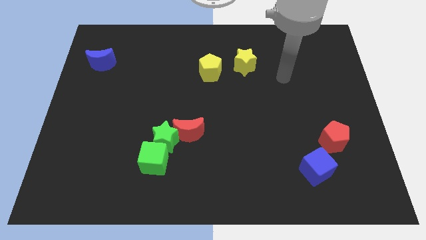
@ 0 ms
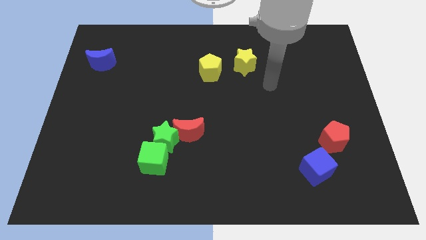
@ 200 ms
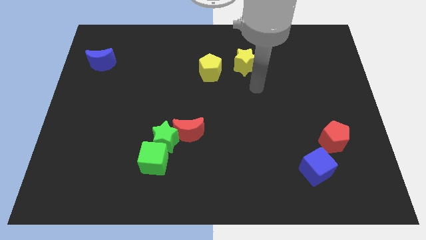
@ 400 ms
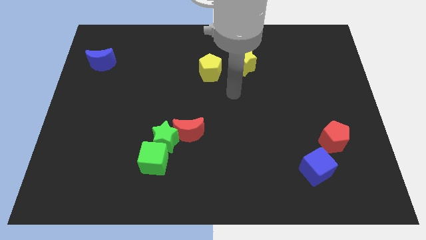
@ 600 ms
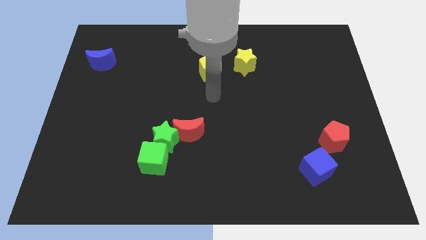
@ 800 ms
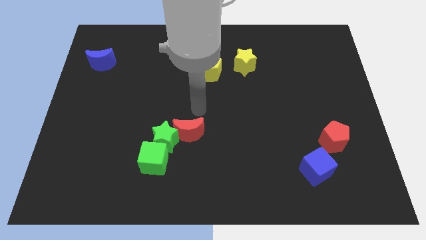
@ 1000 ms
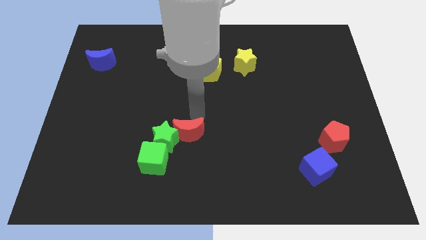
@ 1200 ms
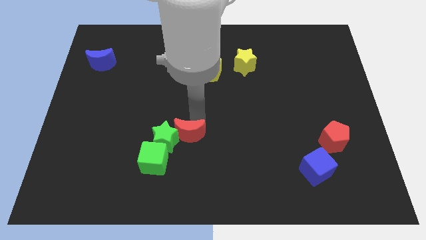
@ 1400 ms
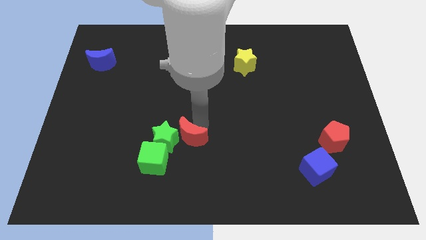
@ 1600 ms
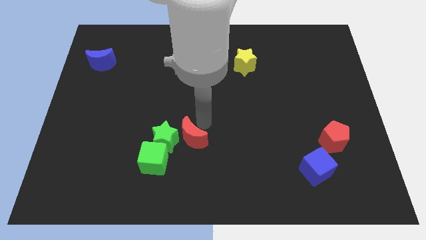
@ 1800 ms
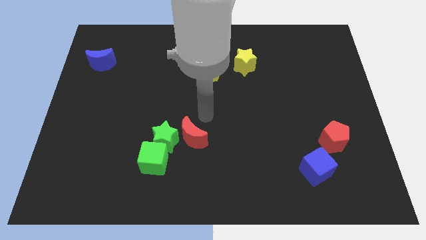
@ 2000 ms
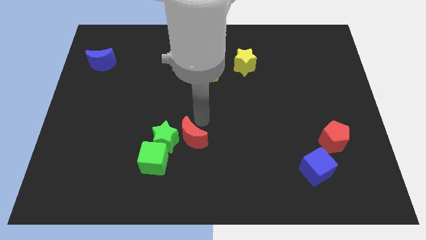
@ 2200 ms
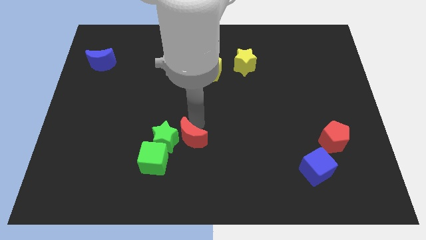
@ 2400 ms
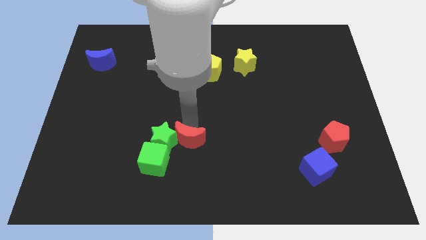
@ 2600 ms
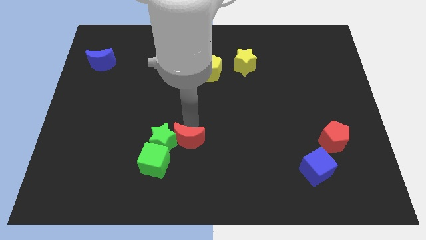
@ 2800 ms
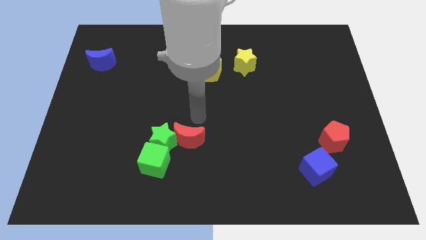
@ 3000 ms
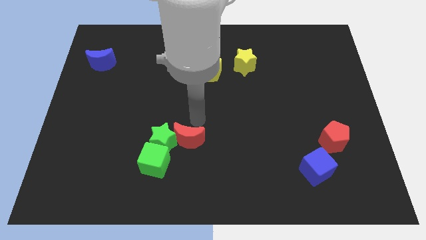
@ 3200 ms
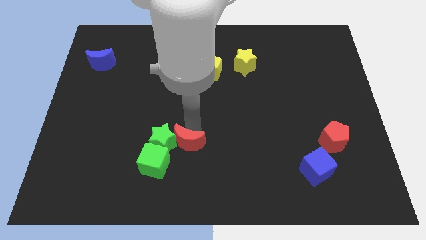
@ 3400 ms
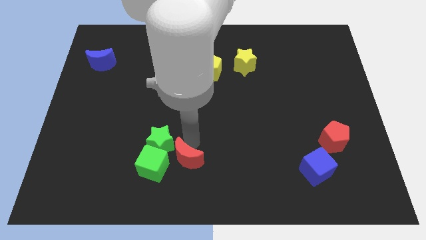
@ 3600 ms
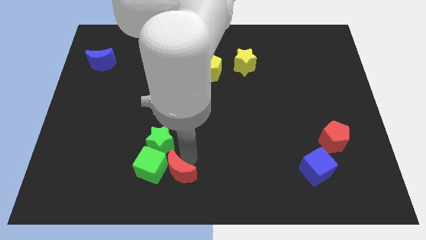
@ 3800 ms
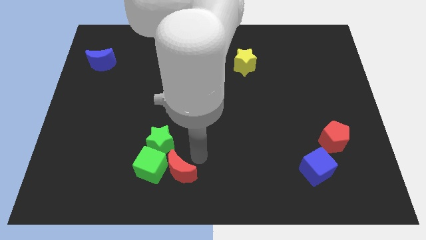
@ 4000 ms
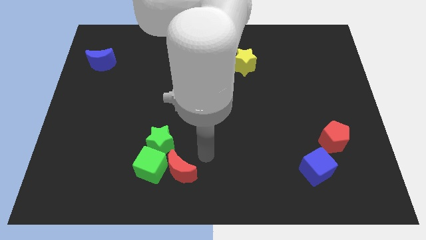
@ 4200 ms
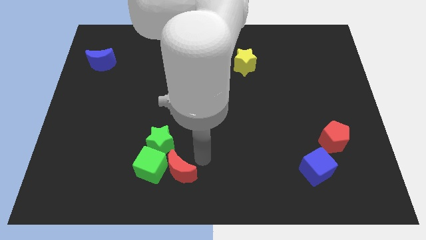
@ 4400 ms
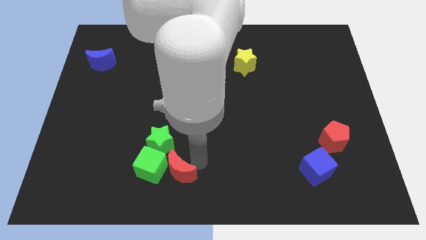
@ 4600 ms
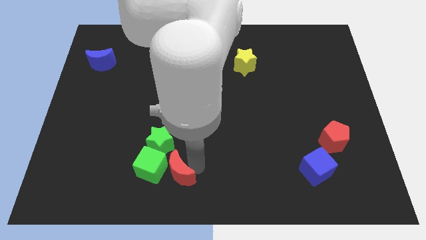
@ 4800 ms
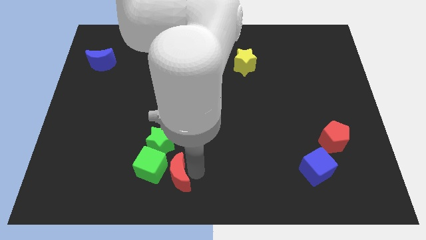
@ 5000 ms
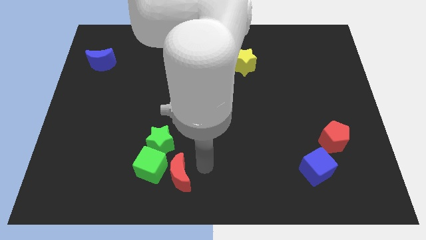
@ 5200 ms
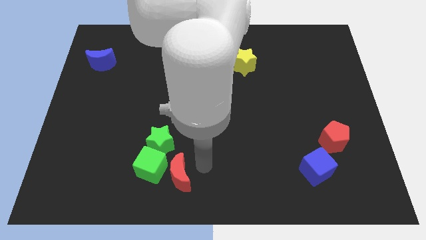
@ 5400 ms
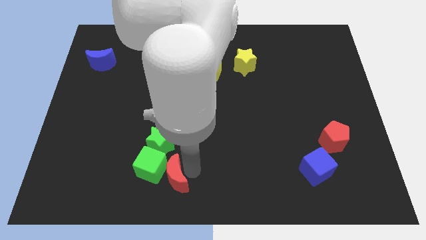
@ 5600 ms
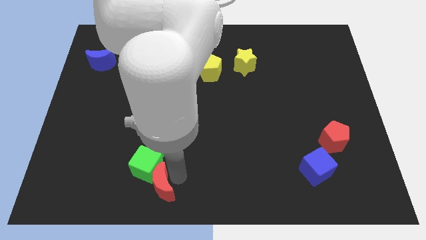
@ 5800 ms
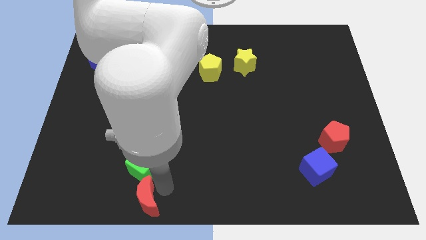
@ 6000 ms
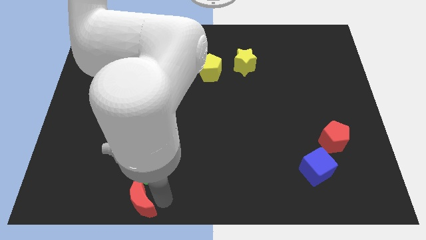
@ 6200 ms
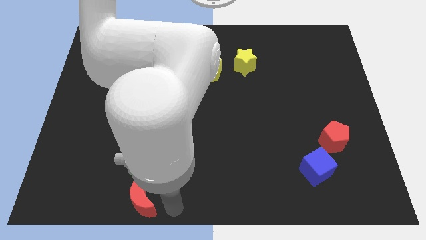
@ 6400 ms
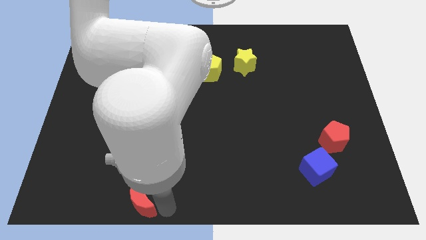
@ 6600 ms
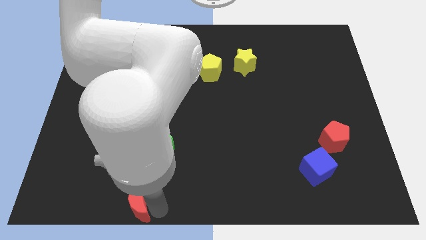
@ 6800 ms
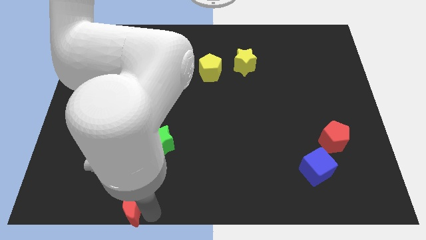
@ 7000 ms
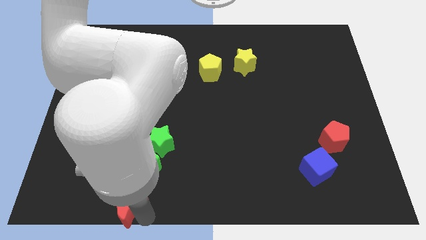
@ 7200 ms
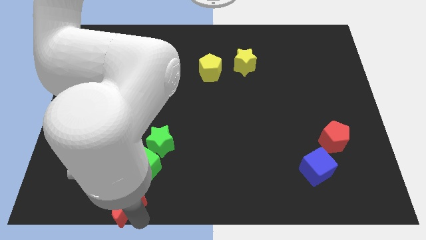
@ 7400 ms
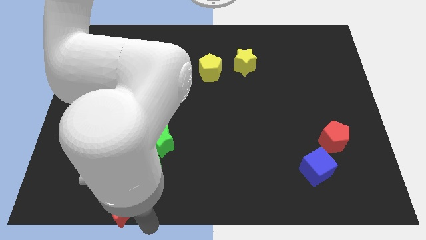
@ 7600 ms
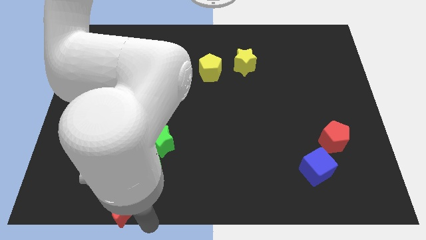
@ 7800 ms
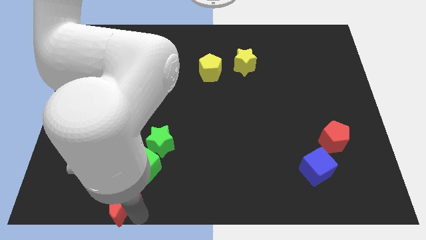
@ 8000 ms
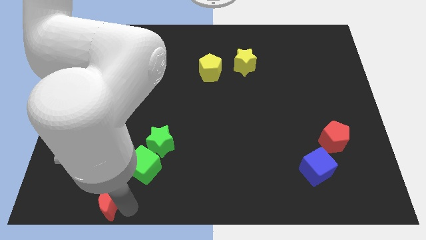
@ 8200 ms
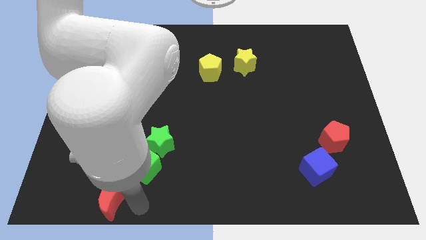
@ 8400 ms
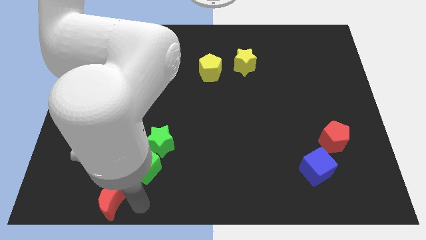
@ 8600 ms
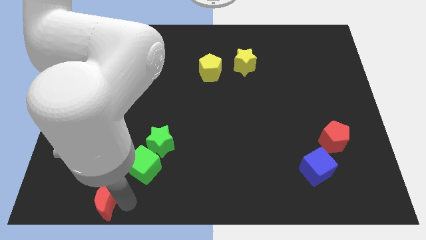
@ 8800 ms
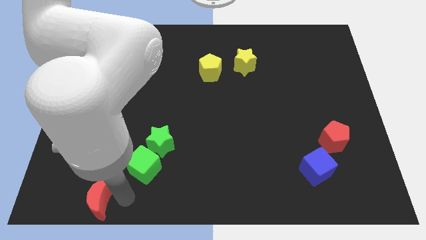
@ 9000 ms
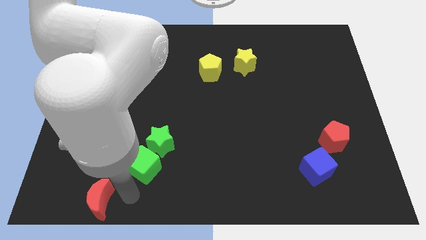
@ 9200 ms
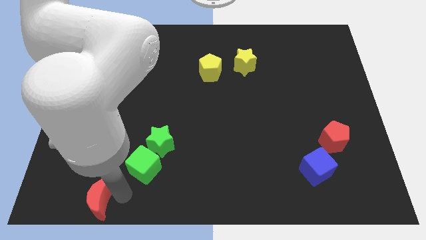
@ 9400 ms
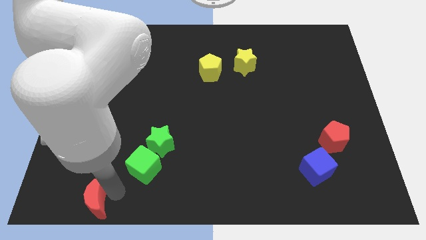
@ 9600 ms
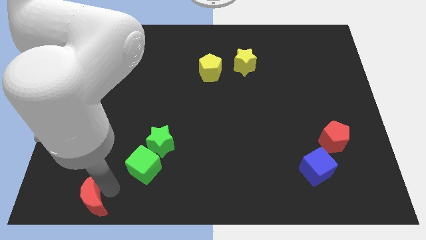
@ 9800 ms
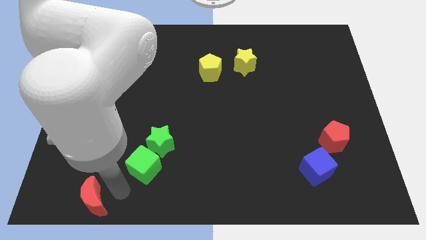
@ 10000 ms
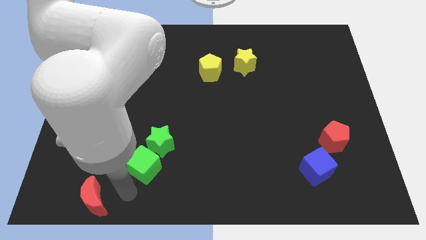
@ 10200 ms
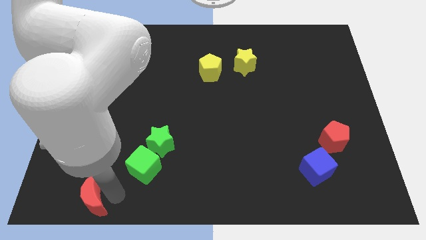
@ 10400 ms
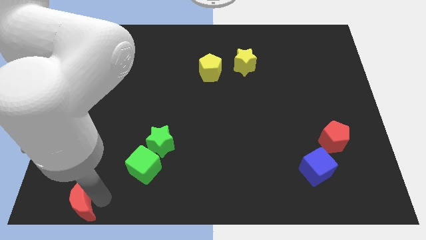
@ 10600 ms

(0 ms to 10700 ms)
move the red moon to the bottom left corner

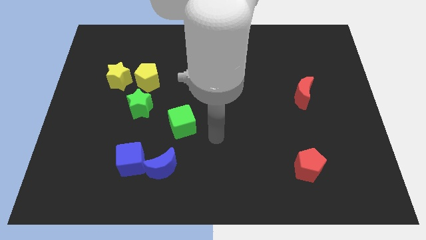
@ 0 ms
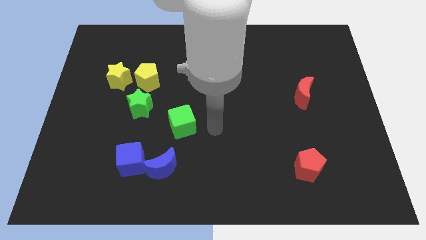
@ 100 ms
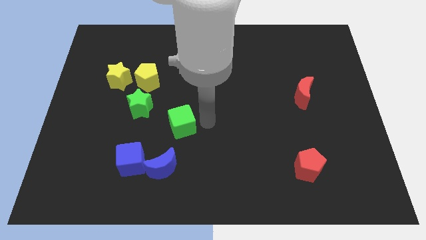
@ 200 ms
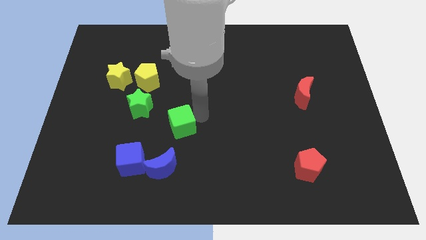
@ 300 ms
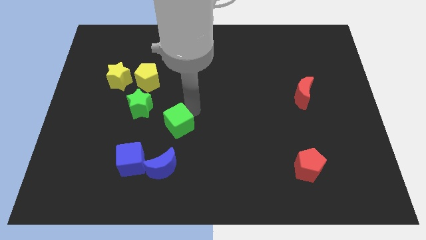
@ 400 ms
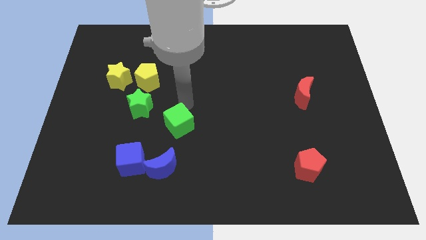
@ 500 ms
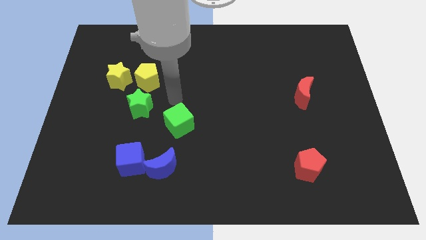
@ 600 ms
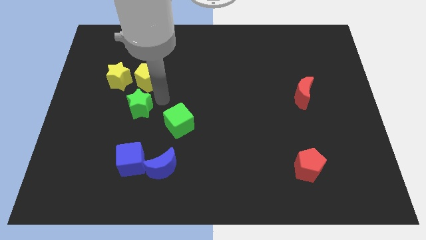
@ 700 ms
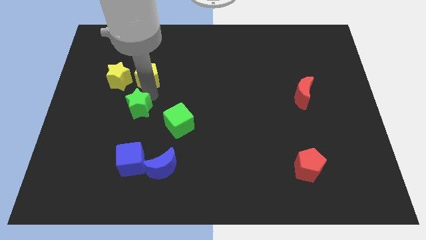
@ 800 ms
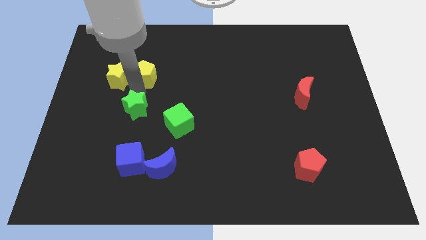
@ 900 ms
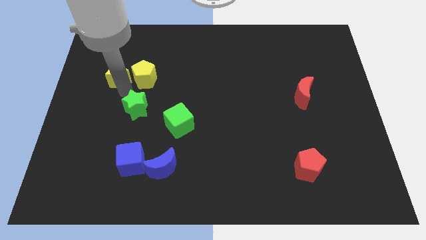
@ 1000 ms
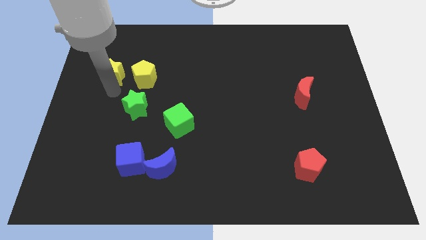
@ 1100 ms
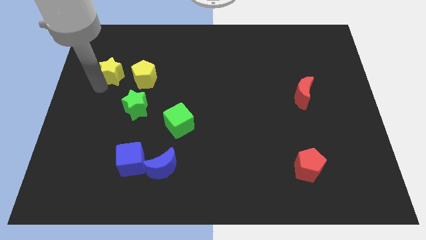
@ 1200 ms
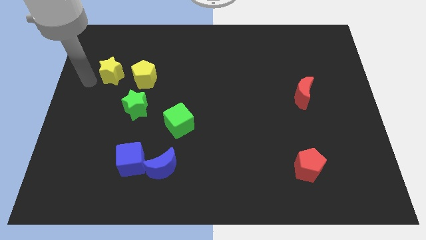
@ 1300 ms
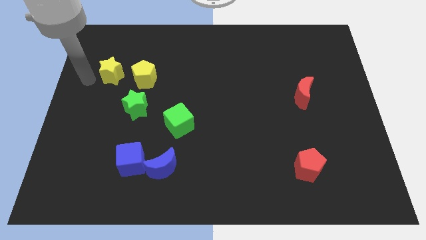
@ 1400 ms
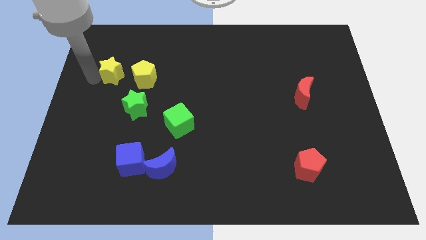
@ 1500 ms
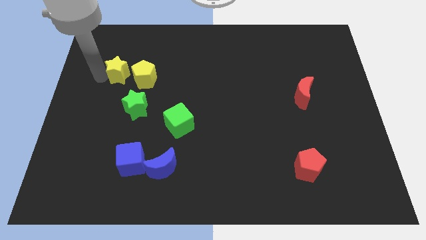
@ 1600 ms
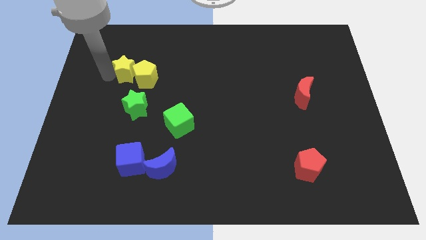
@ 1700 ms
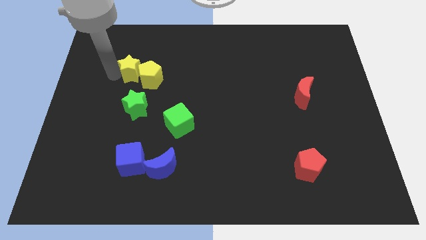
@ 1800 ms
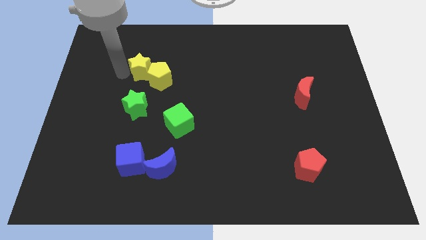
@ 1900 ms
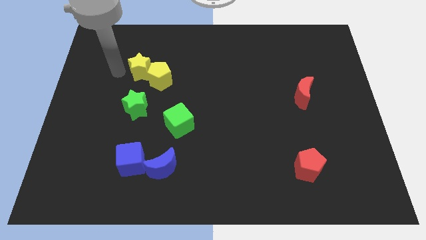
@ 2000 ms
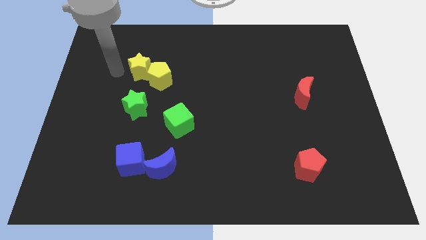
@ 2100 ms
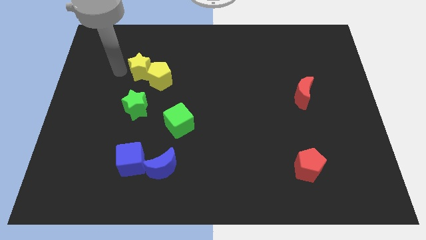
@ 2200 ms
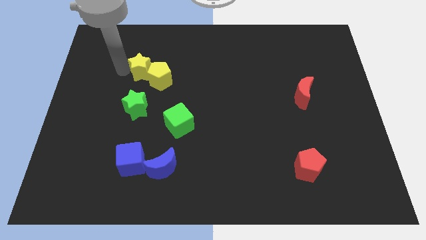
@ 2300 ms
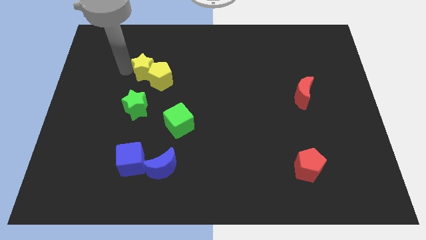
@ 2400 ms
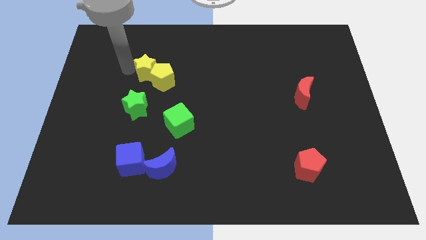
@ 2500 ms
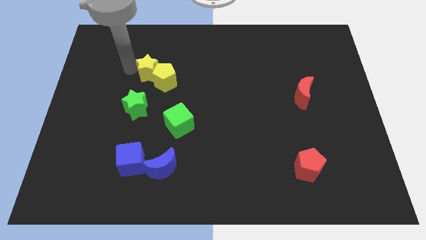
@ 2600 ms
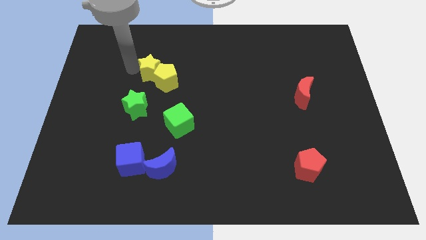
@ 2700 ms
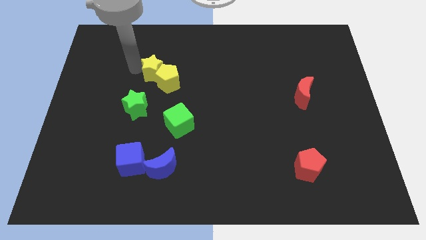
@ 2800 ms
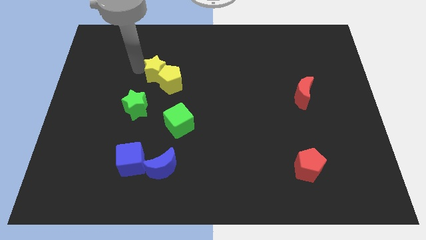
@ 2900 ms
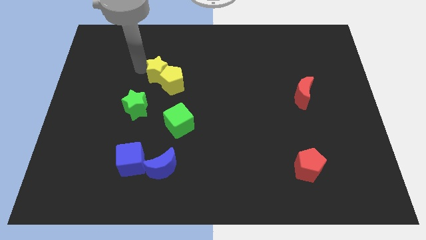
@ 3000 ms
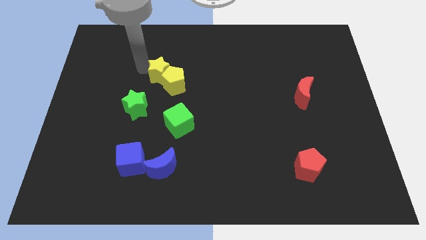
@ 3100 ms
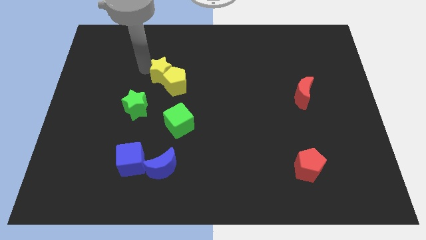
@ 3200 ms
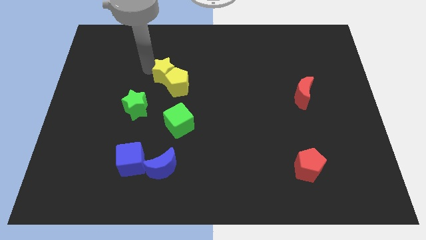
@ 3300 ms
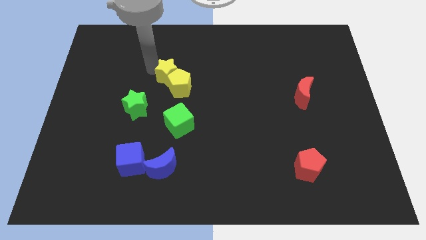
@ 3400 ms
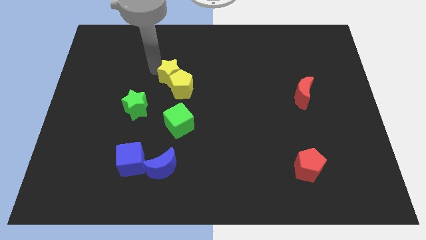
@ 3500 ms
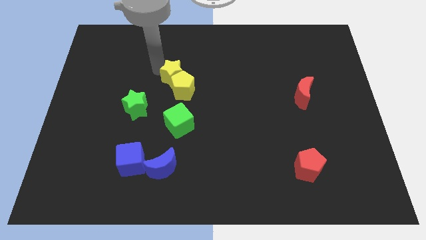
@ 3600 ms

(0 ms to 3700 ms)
put the yellow star to the middle of the board
